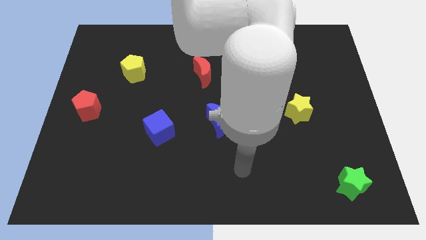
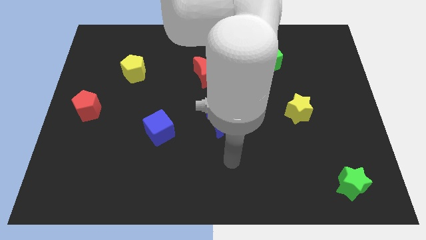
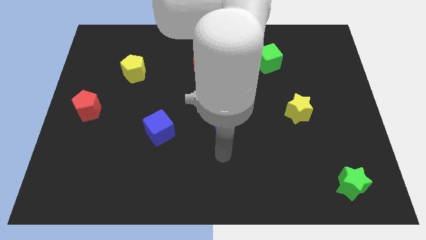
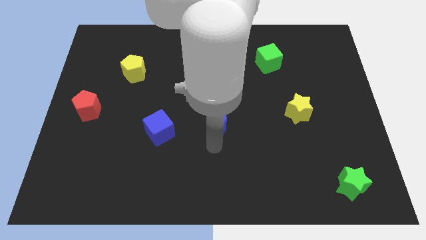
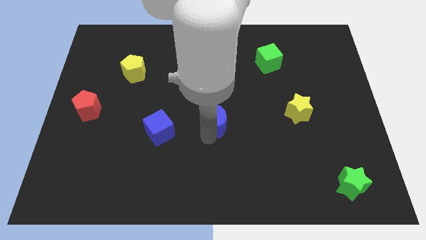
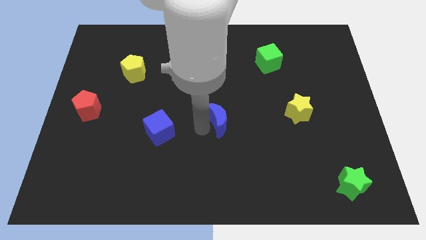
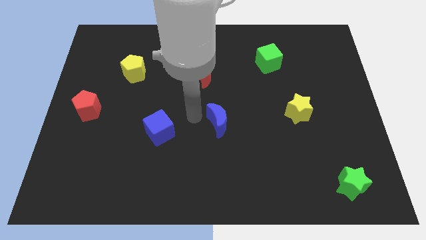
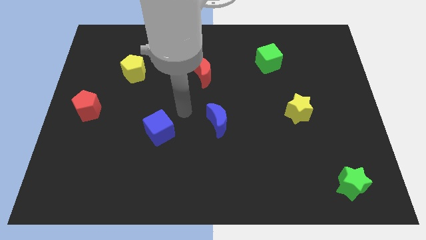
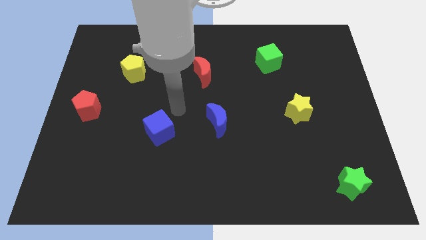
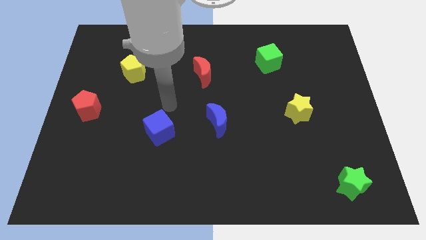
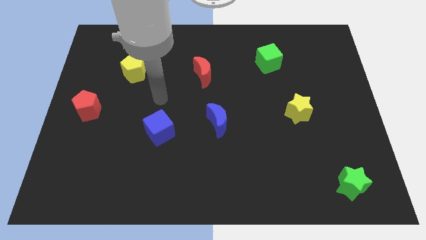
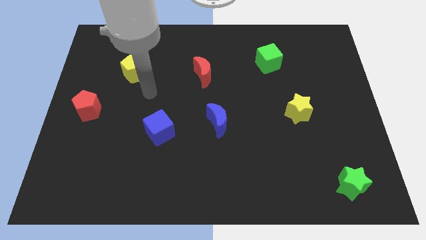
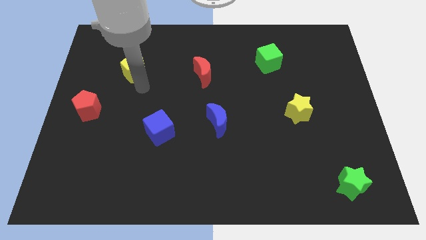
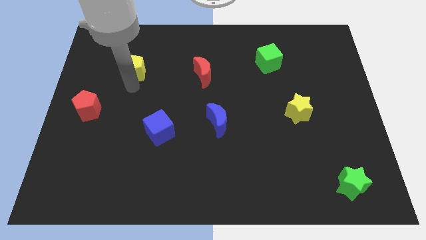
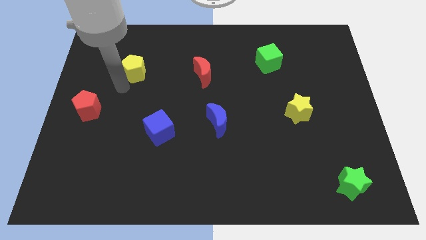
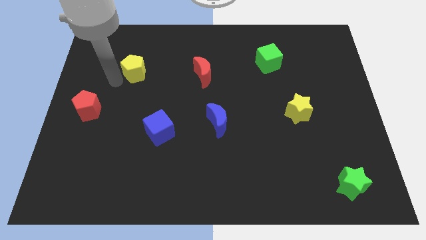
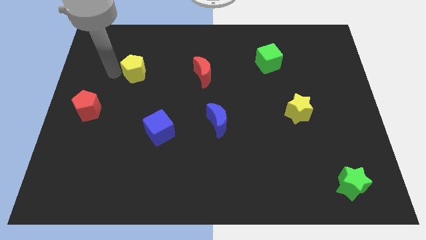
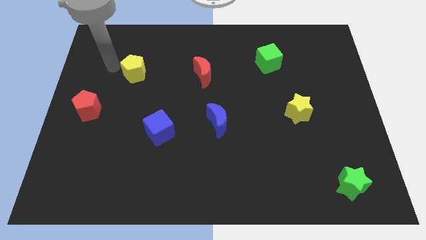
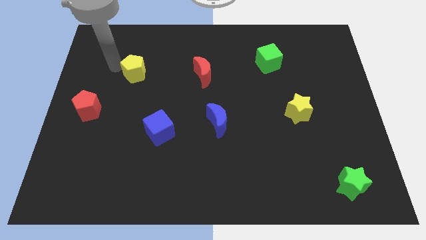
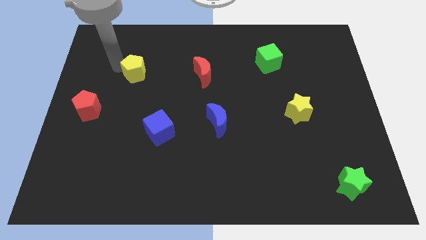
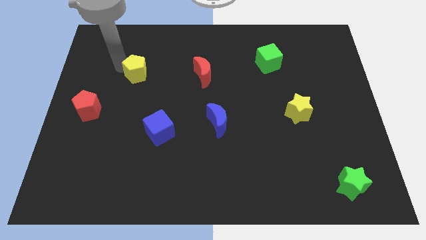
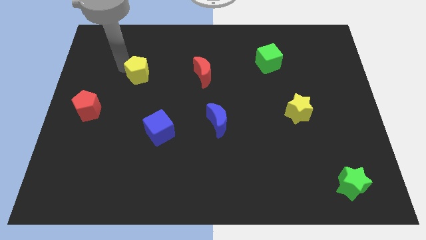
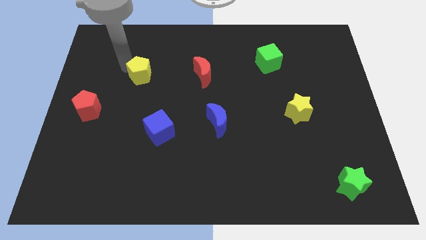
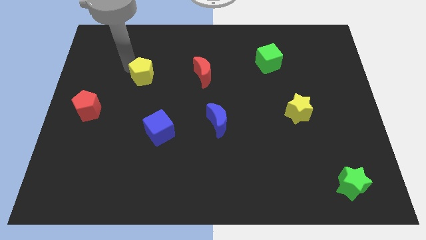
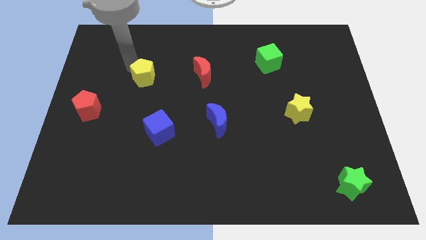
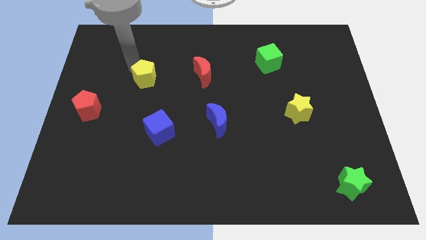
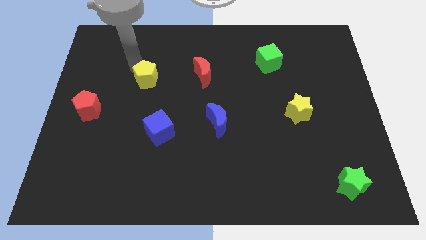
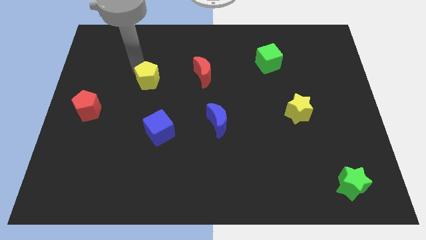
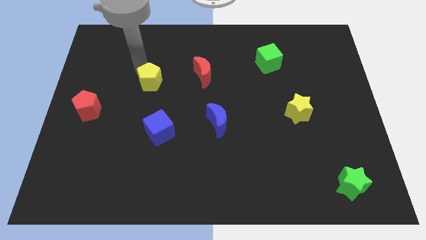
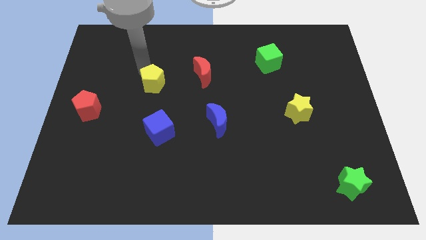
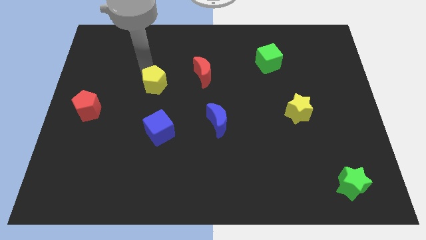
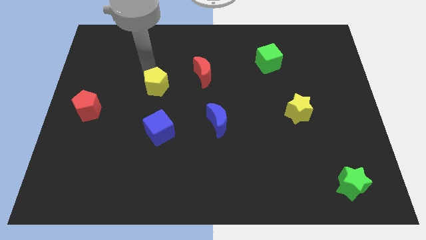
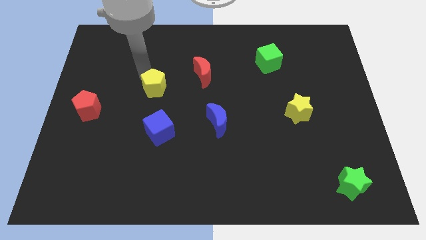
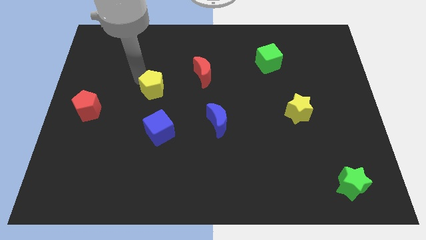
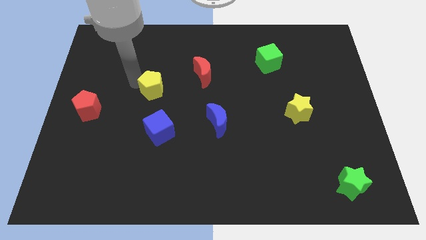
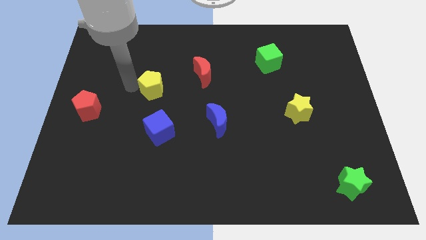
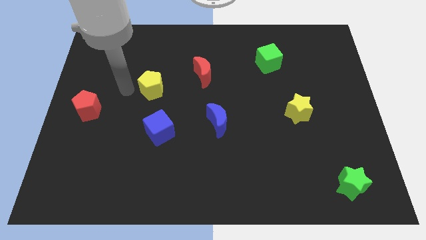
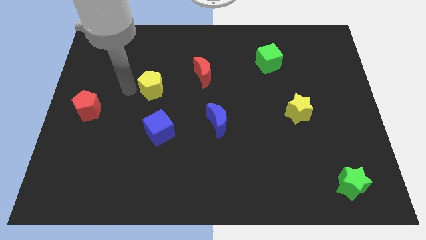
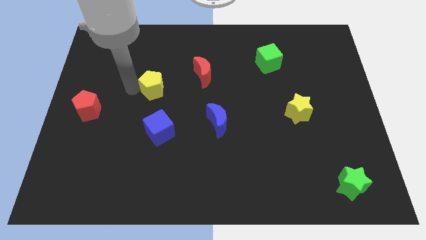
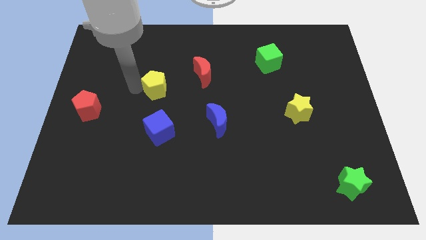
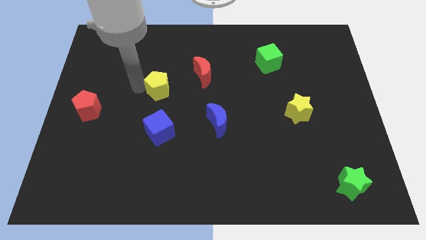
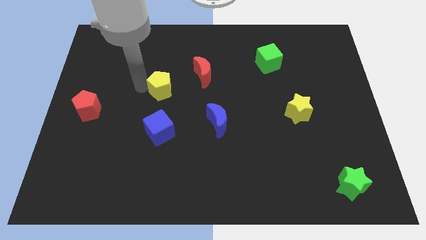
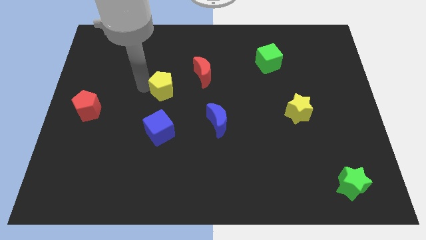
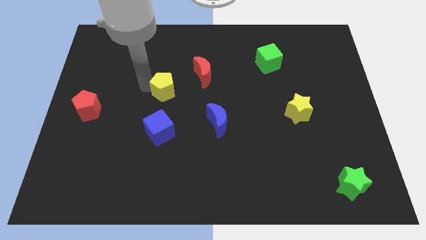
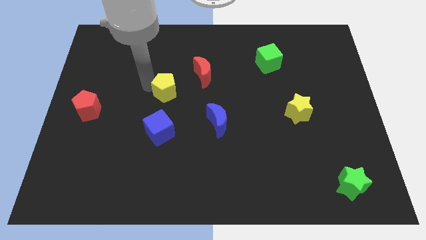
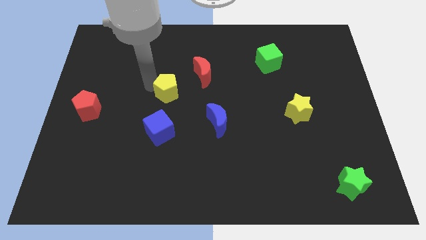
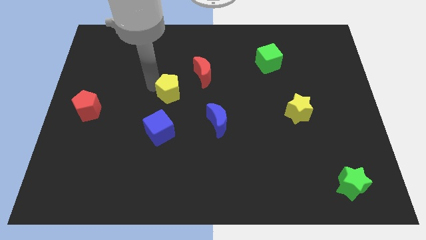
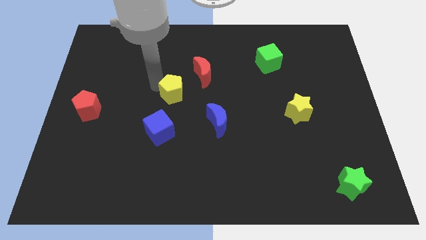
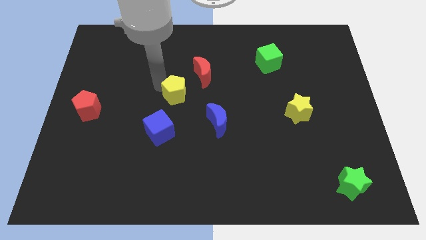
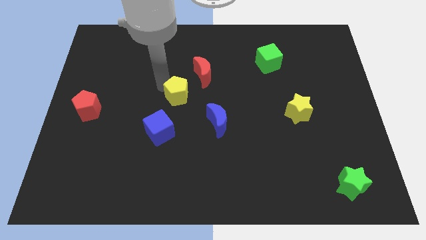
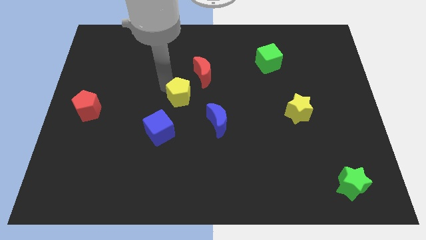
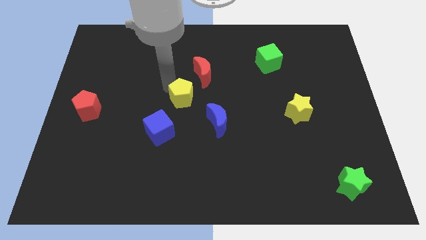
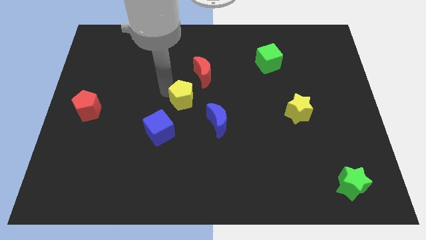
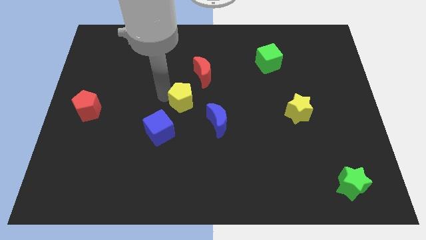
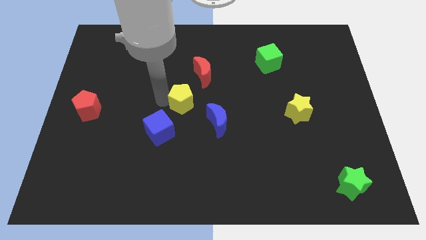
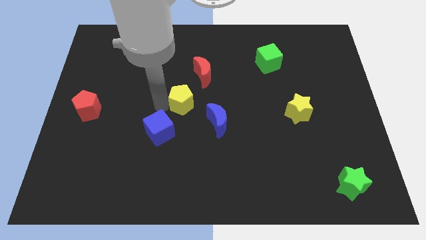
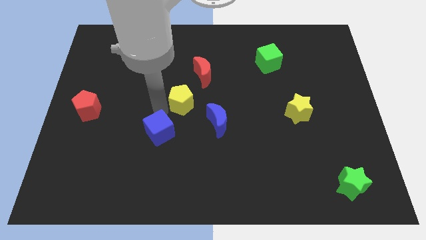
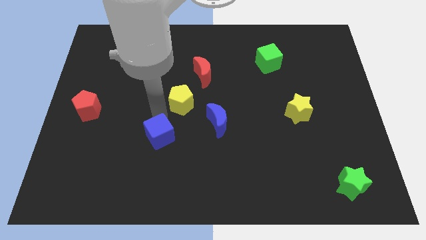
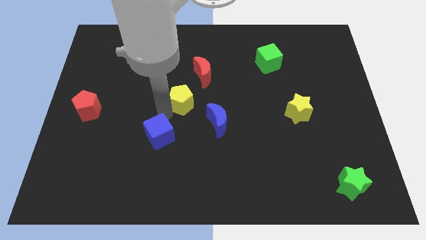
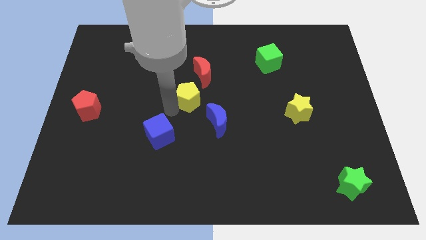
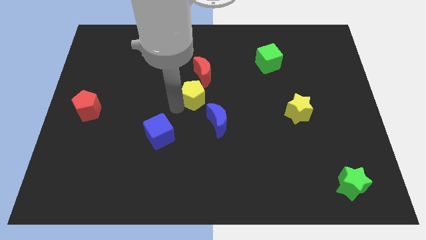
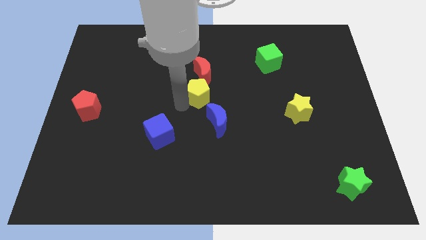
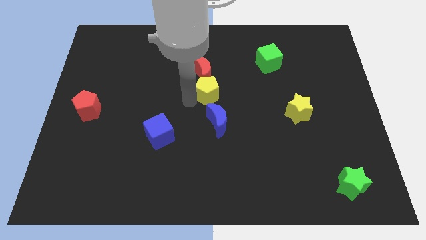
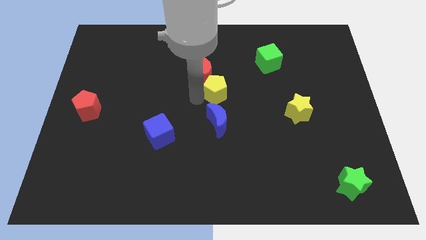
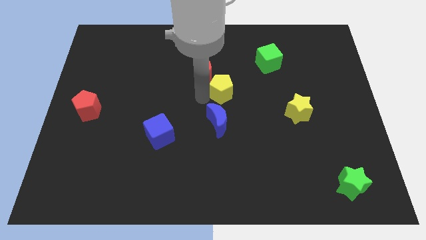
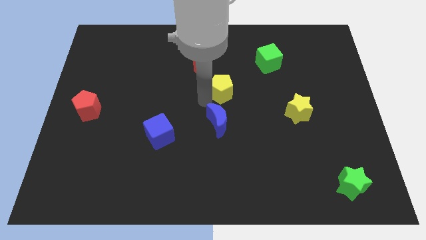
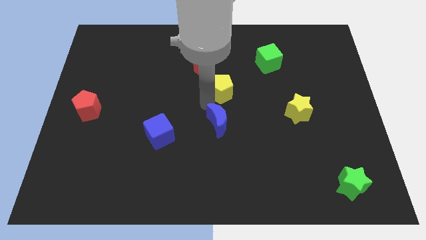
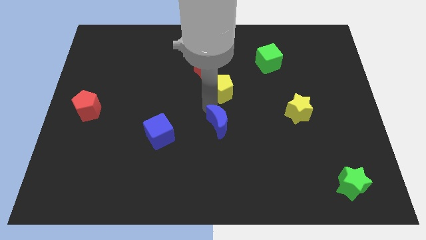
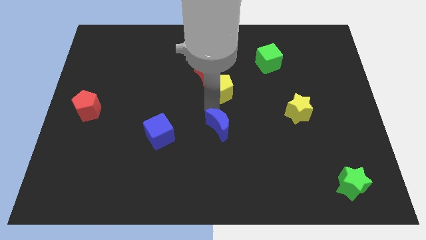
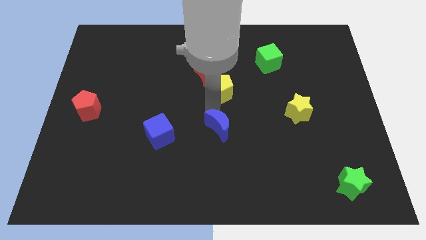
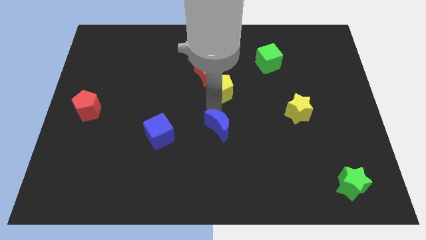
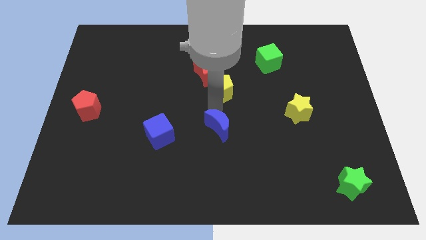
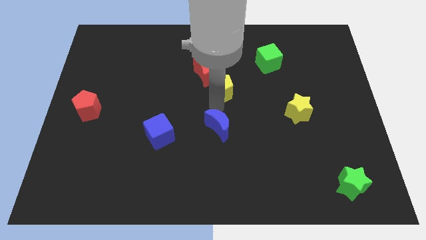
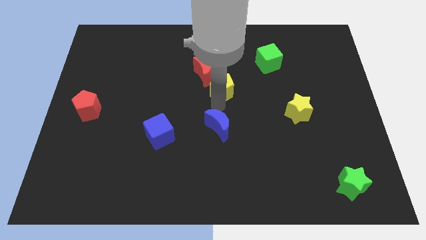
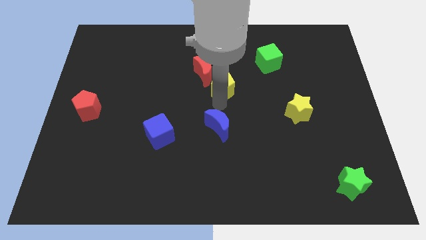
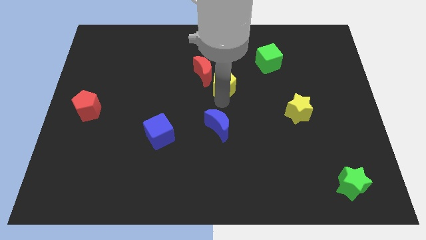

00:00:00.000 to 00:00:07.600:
put the yellow pentagon right of the red moon

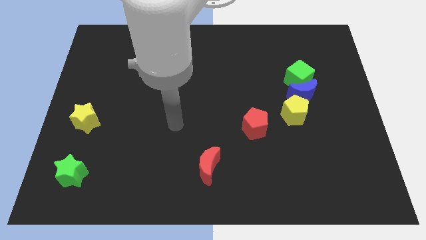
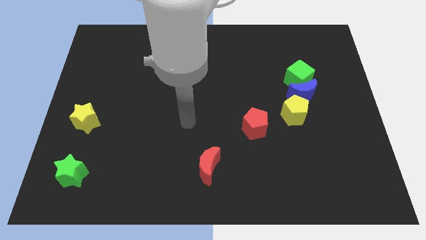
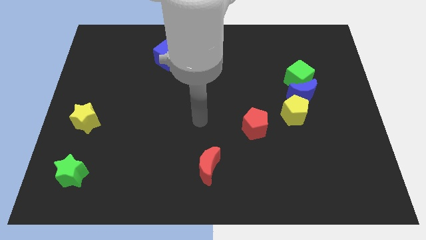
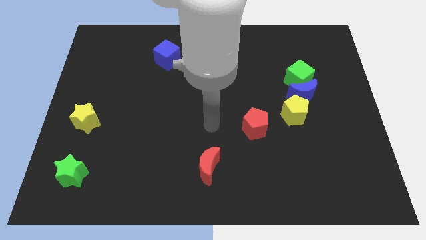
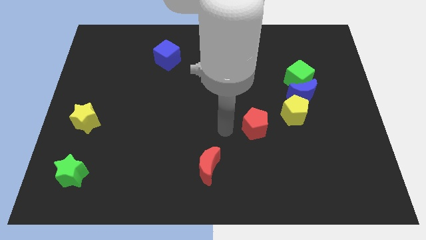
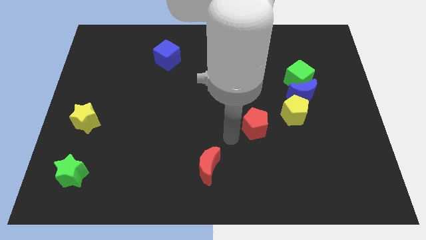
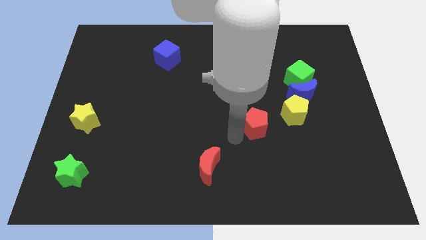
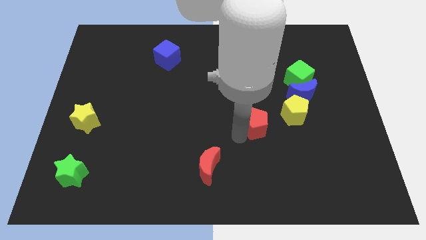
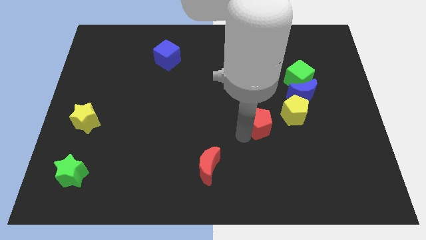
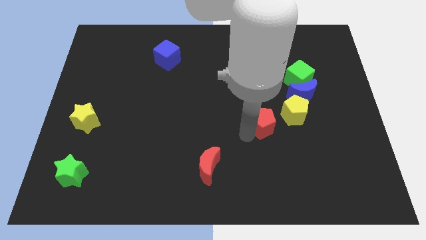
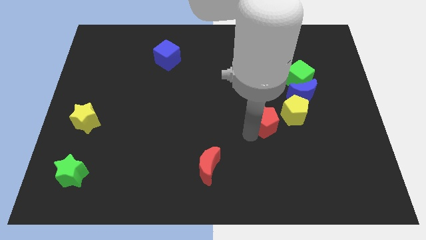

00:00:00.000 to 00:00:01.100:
slide the red pentagon to the bottom left side of the blue moon
